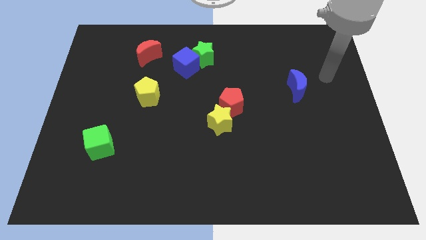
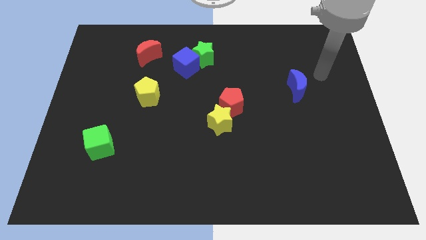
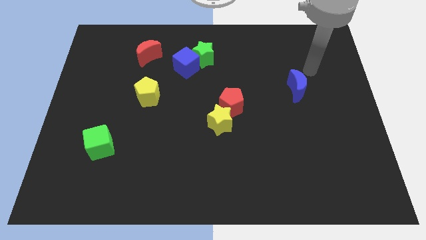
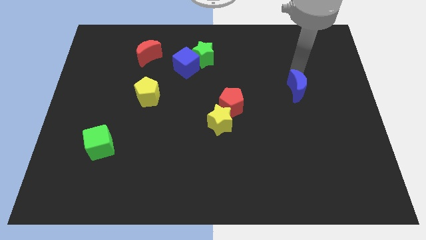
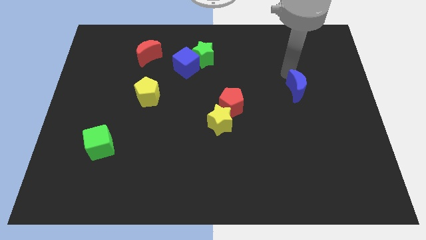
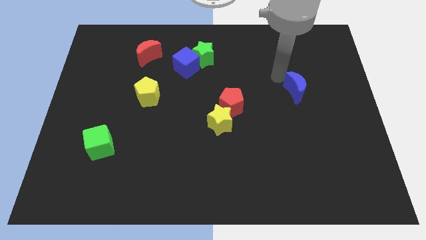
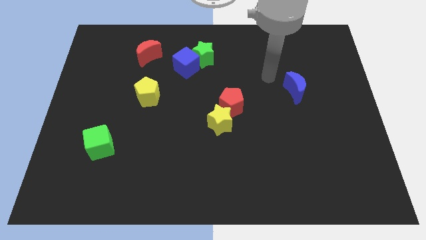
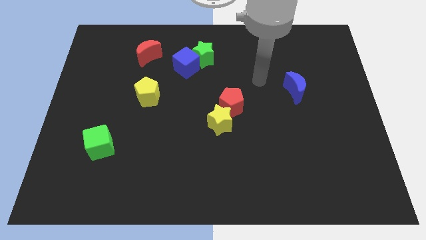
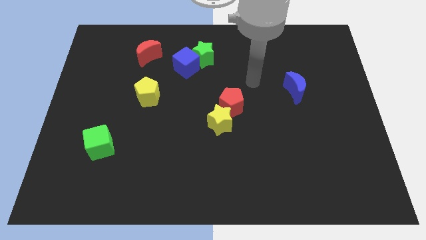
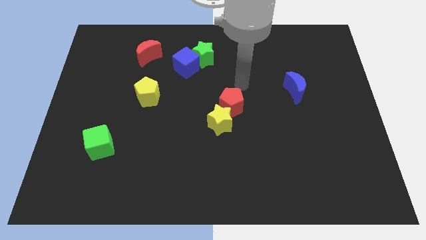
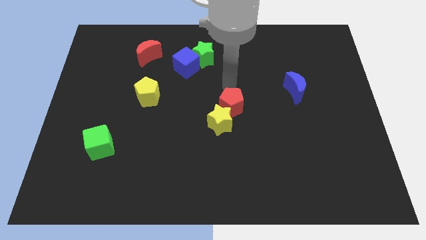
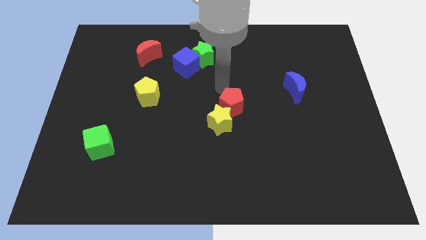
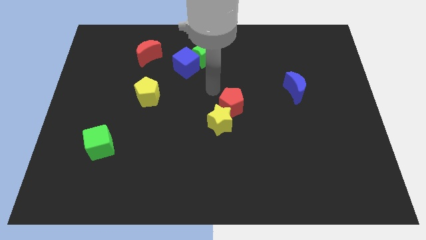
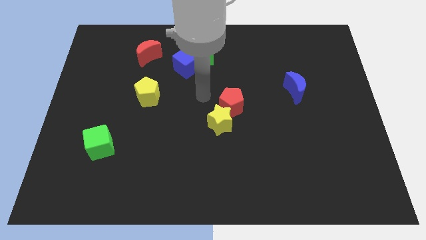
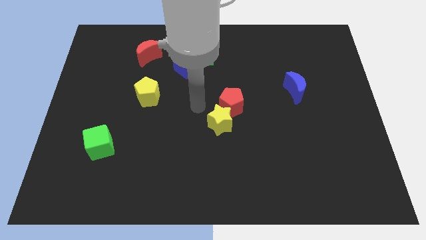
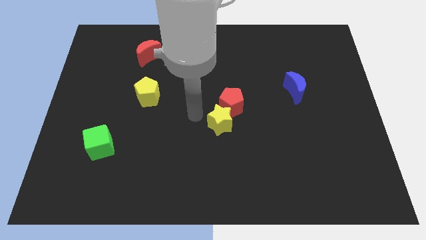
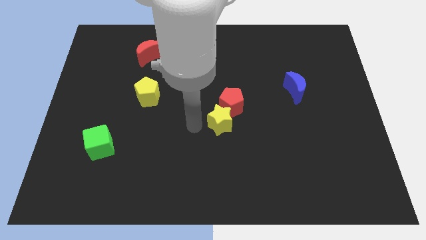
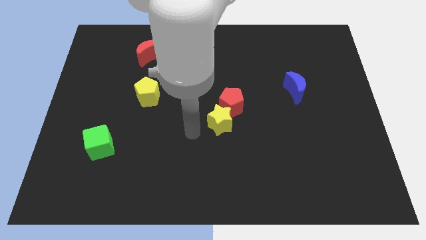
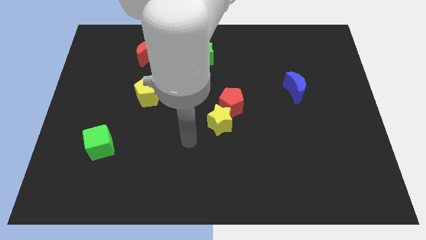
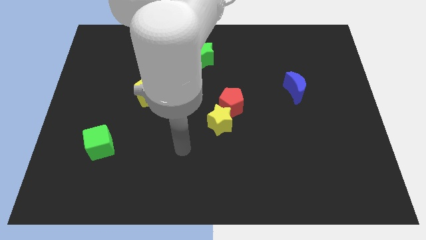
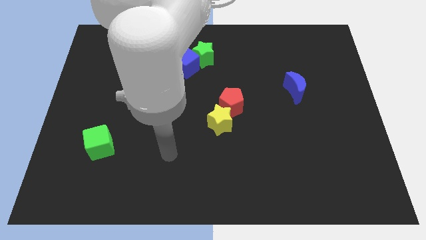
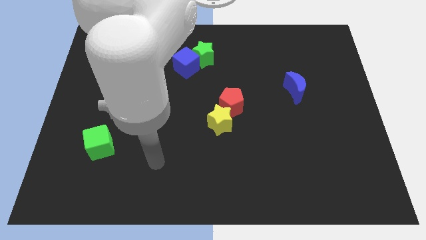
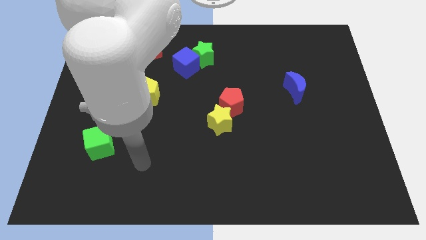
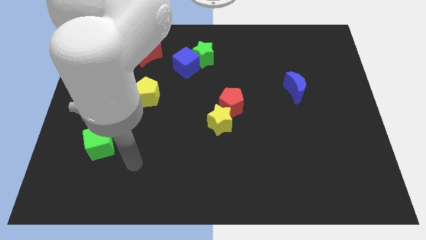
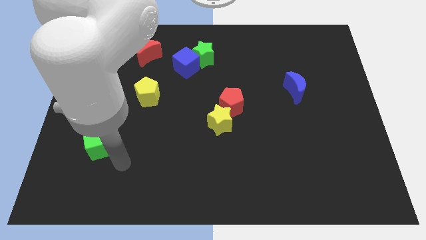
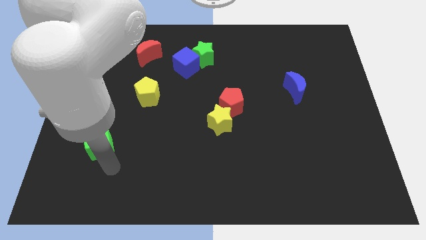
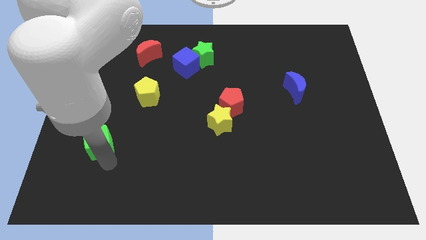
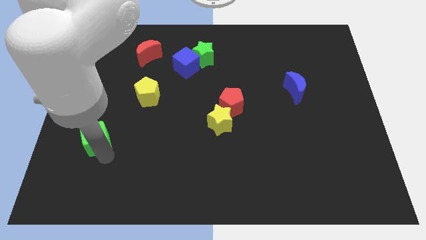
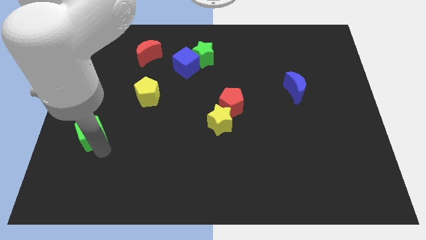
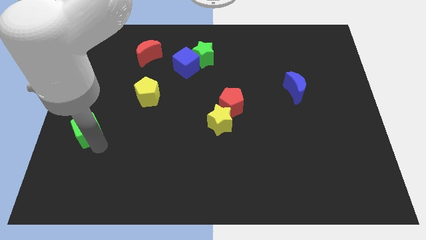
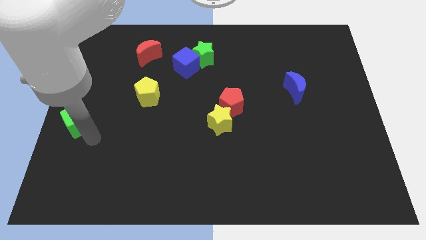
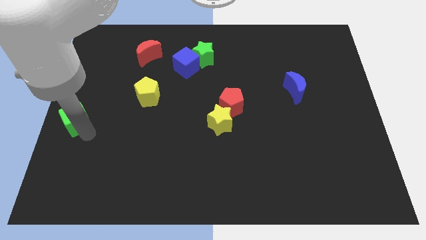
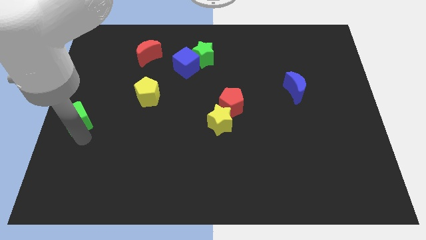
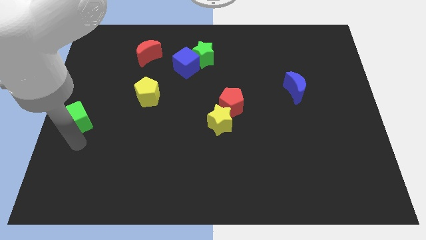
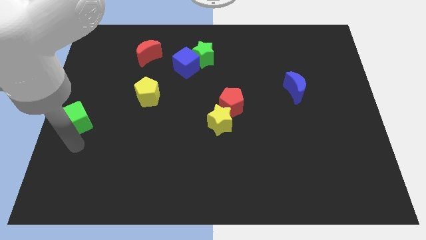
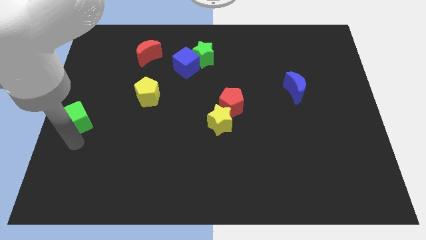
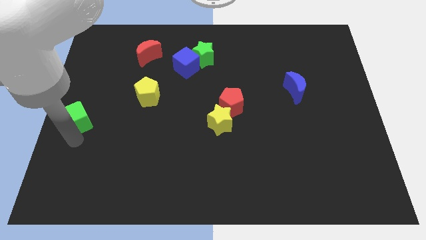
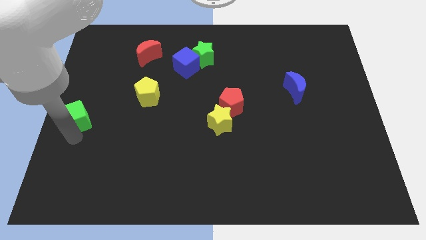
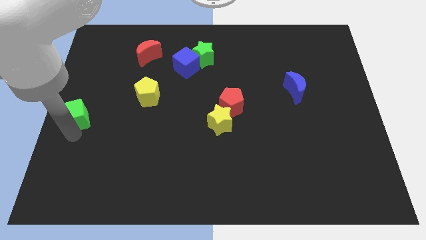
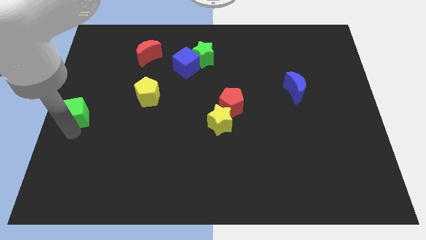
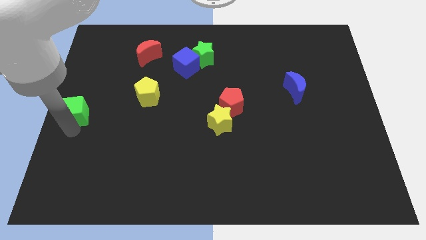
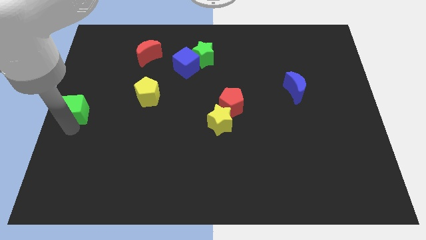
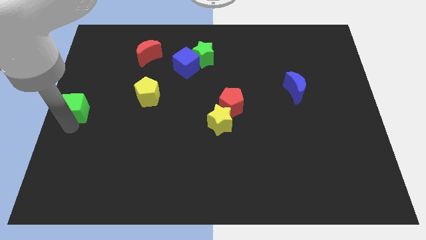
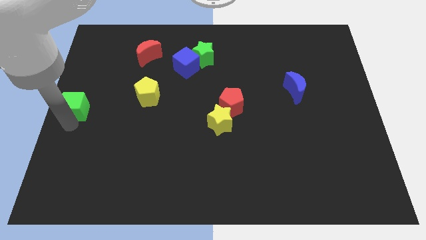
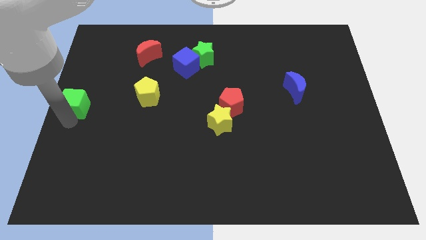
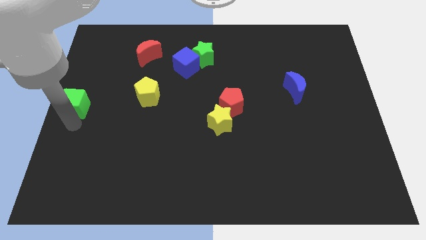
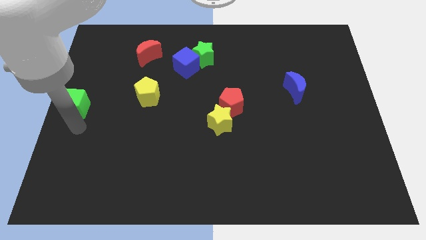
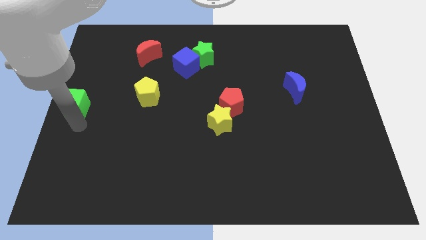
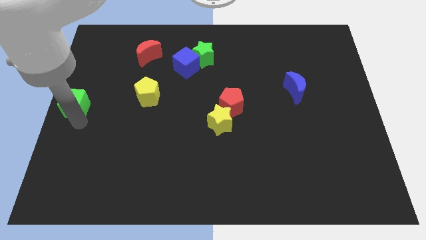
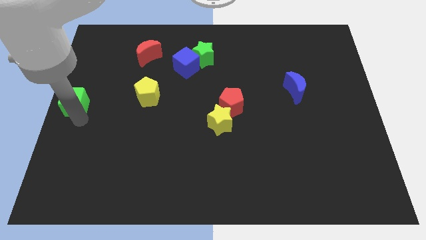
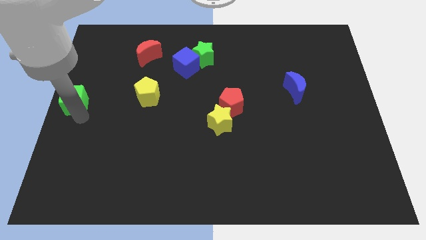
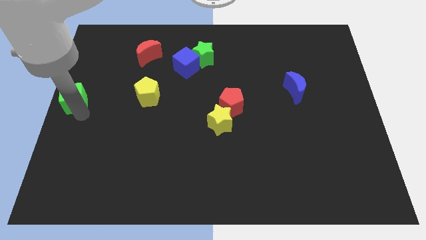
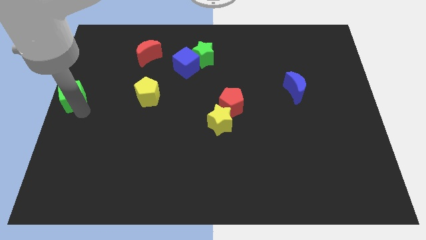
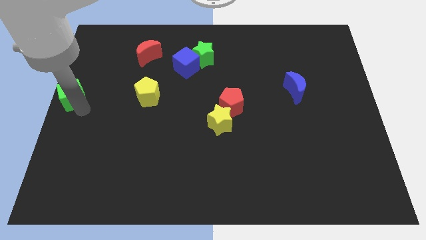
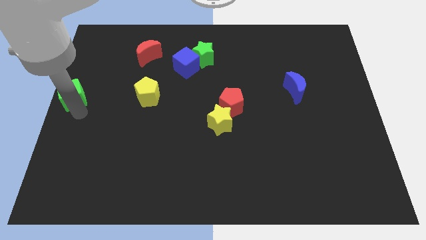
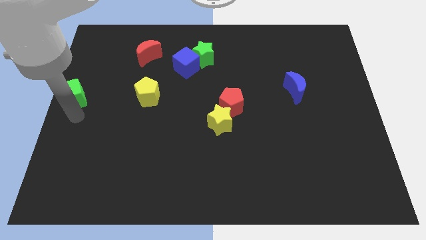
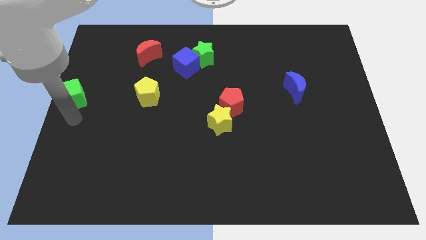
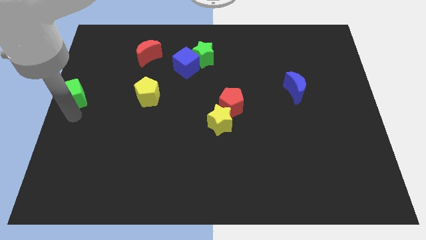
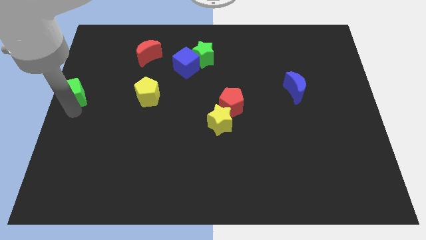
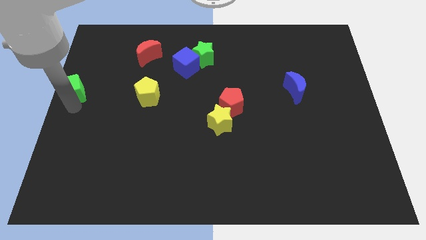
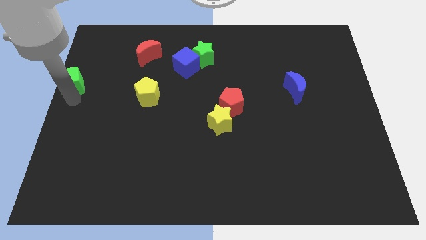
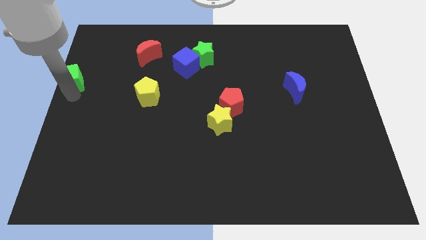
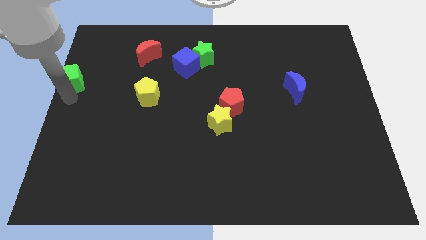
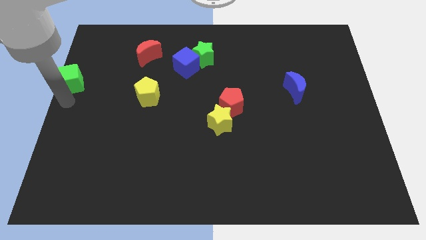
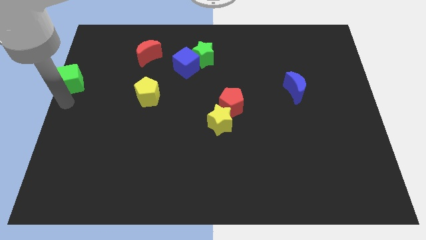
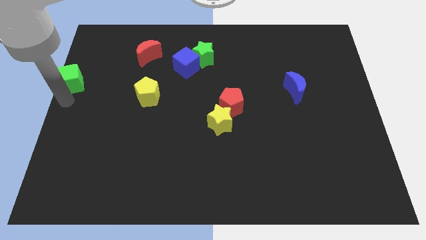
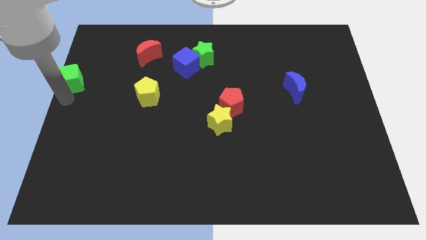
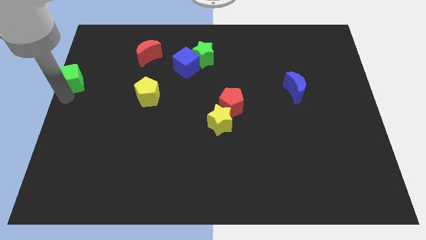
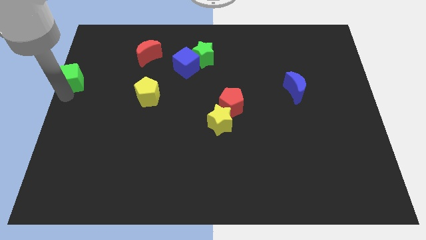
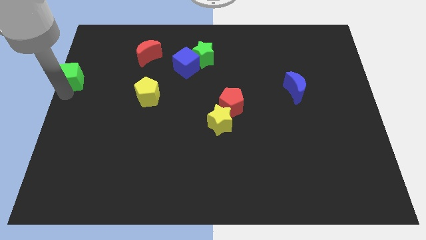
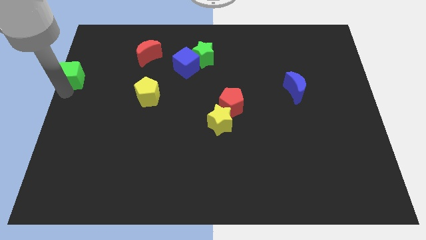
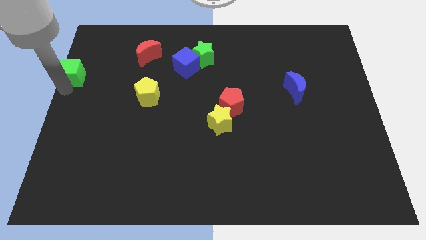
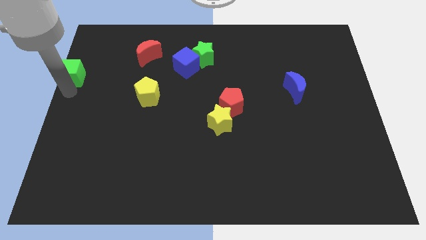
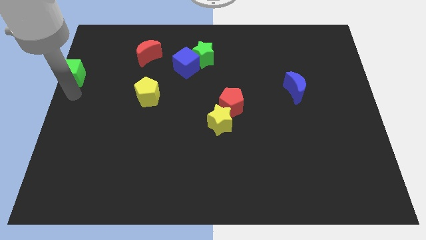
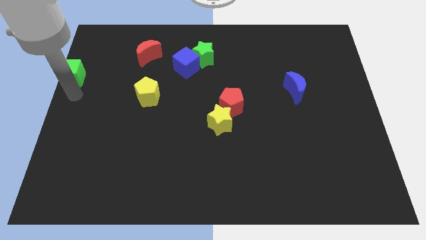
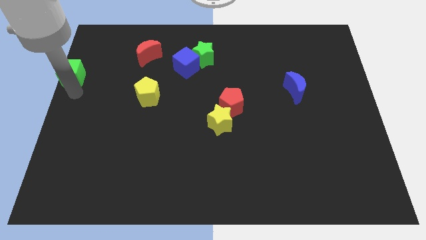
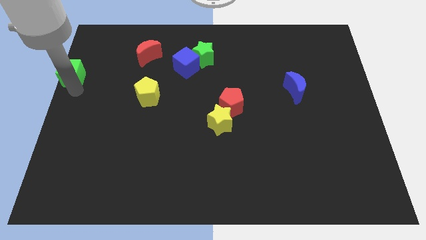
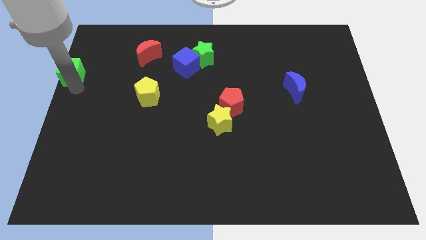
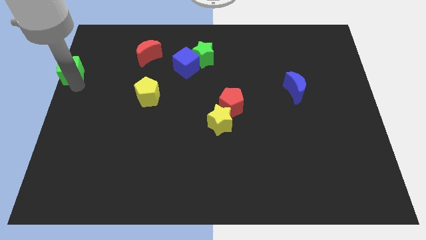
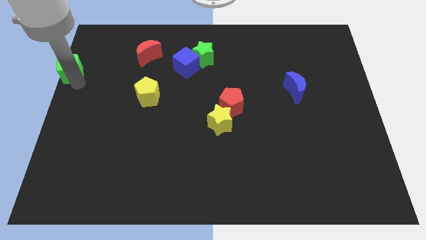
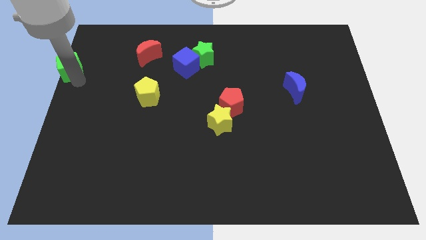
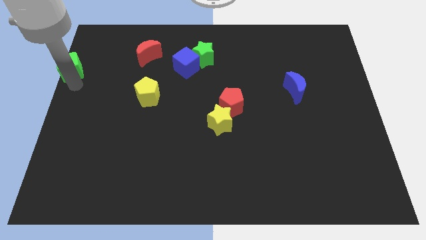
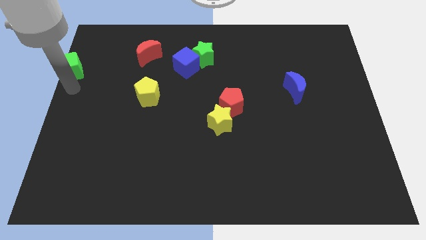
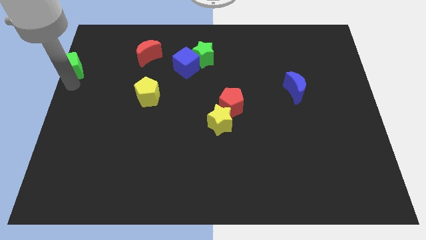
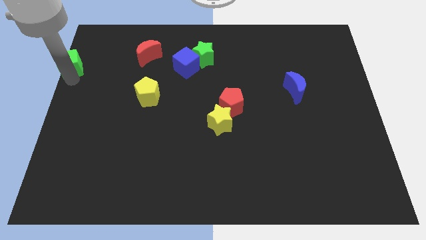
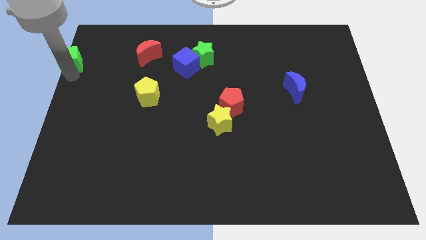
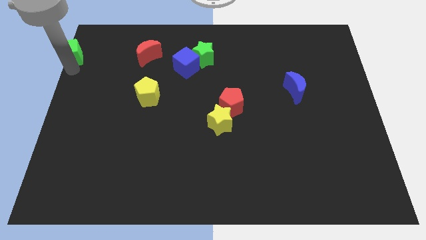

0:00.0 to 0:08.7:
push the green cube to the top left corner
